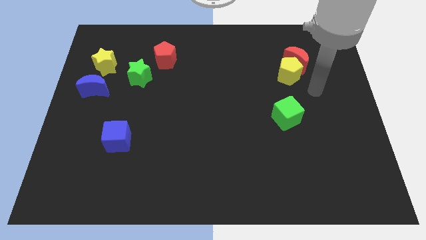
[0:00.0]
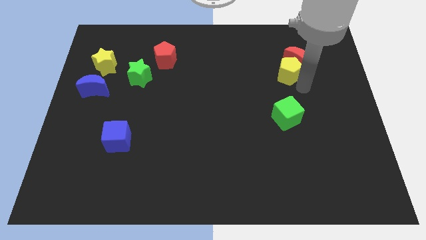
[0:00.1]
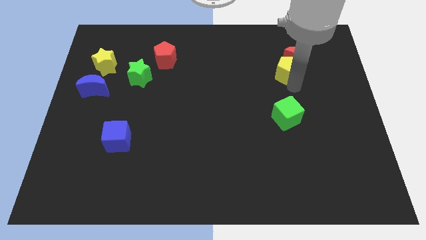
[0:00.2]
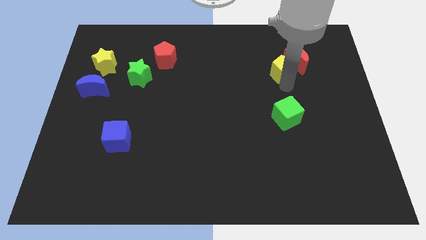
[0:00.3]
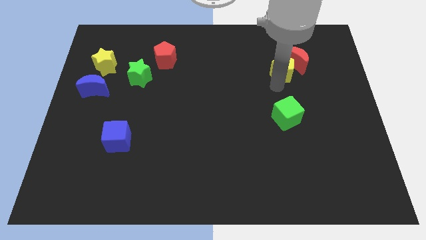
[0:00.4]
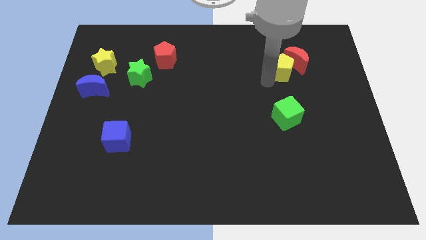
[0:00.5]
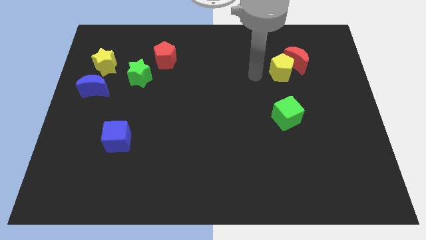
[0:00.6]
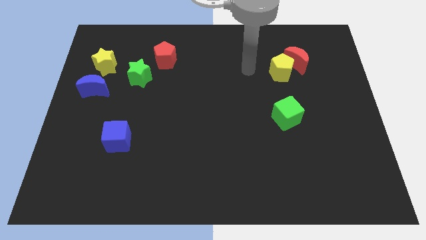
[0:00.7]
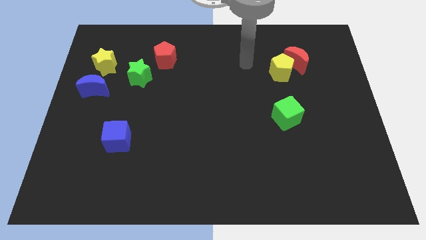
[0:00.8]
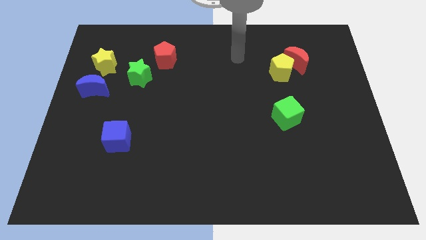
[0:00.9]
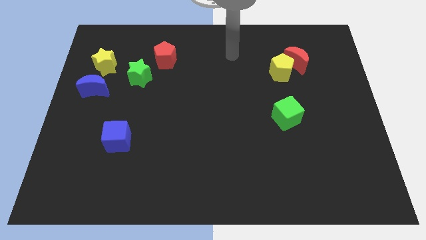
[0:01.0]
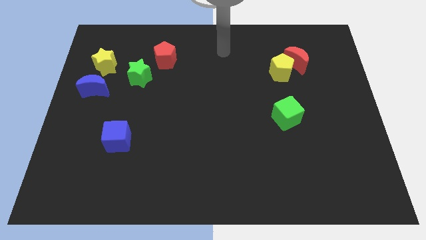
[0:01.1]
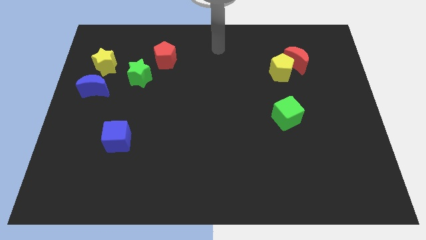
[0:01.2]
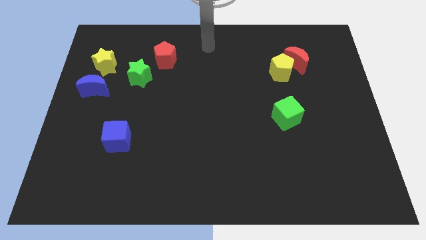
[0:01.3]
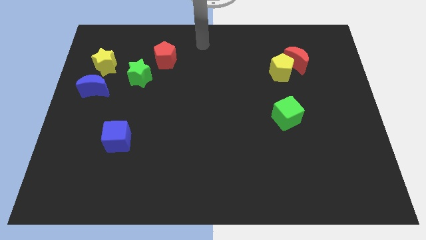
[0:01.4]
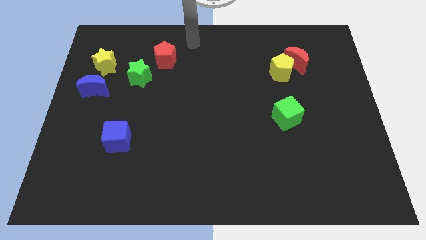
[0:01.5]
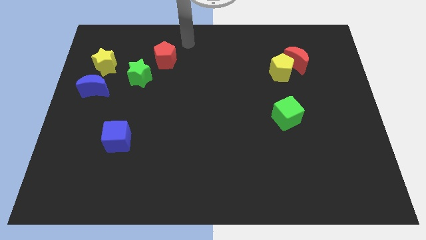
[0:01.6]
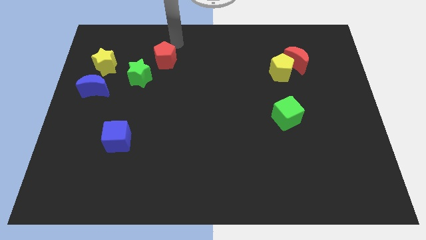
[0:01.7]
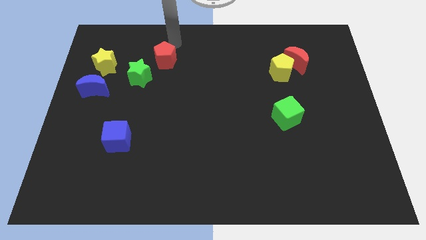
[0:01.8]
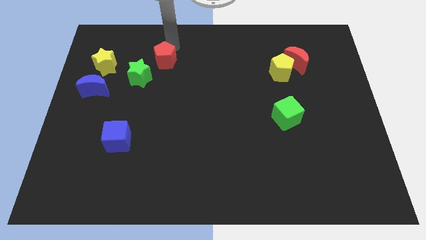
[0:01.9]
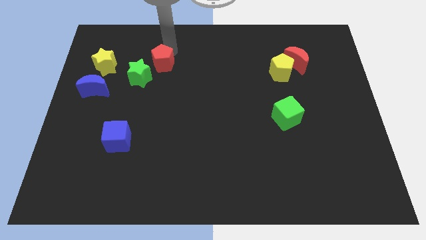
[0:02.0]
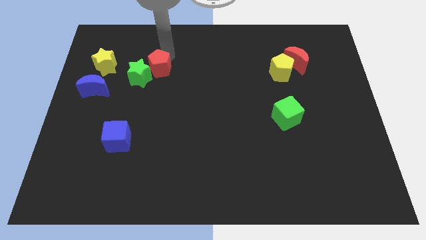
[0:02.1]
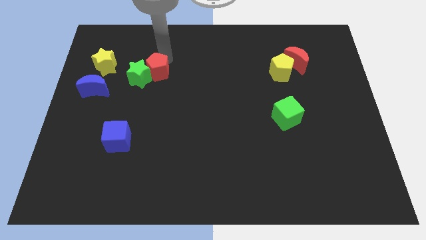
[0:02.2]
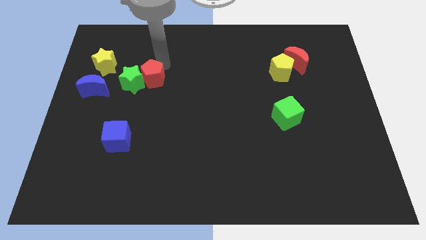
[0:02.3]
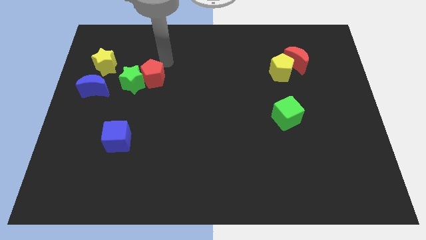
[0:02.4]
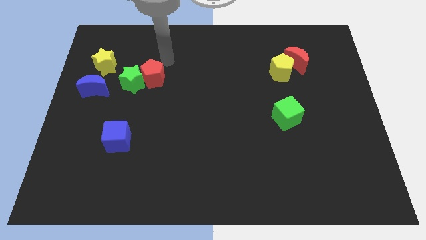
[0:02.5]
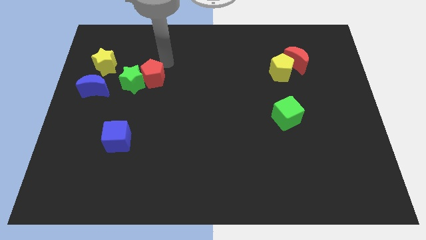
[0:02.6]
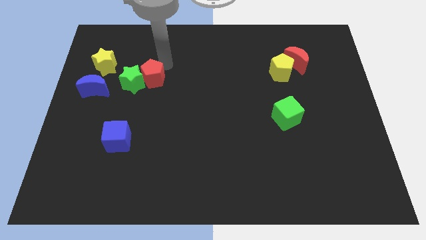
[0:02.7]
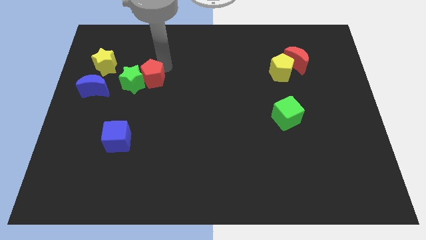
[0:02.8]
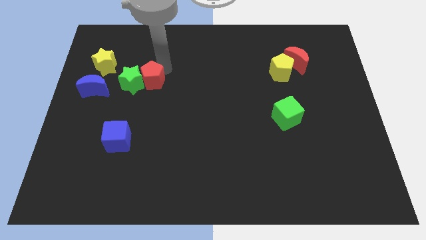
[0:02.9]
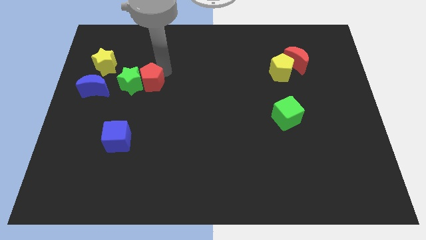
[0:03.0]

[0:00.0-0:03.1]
slide the red pentagon downwards and left a bit

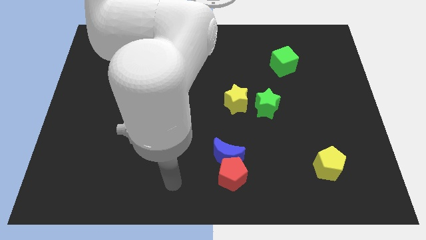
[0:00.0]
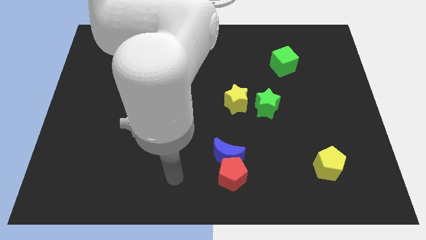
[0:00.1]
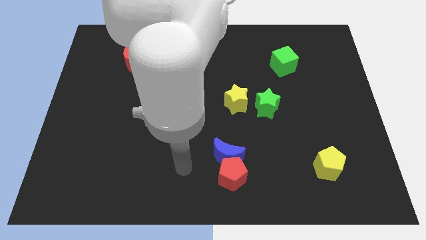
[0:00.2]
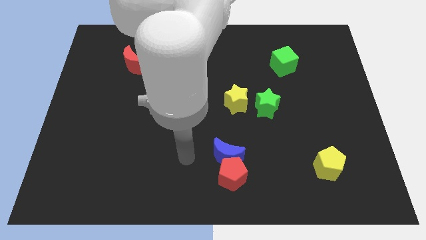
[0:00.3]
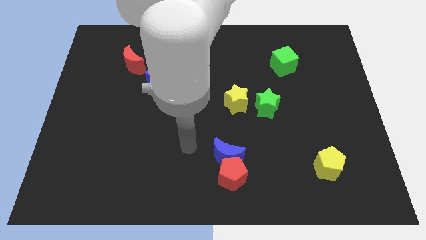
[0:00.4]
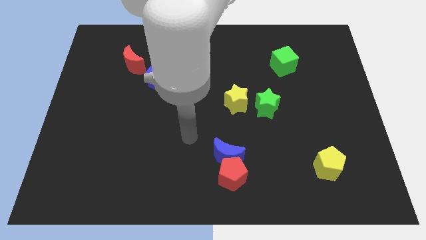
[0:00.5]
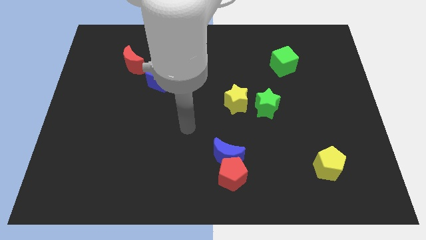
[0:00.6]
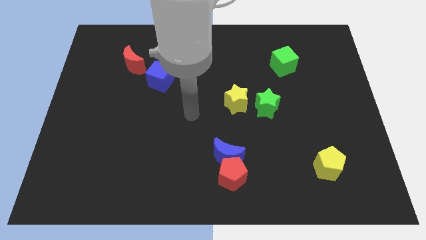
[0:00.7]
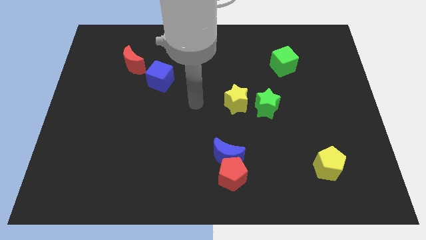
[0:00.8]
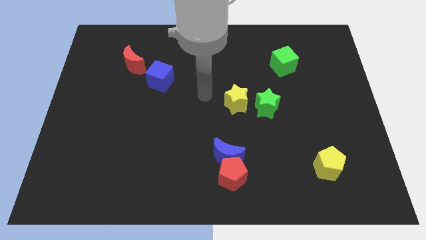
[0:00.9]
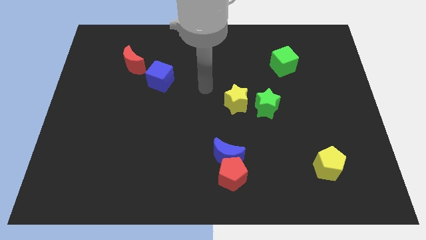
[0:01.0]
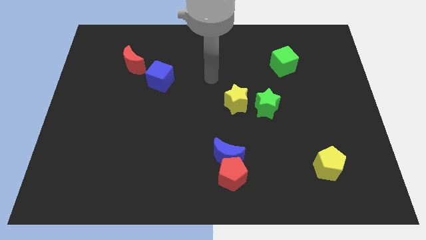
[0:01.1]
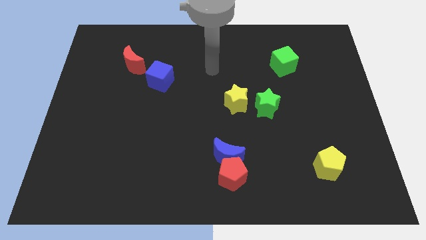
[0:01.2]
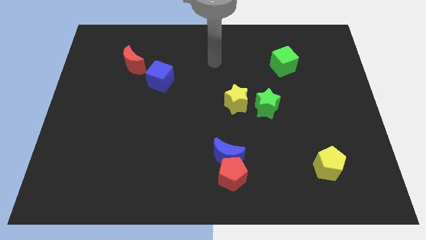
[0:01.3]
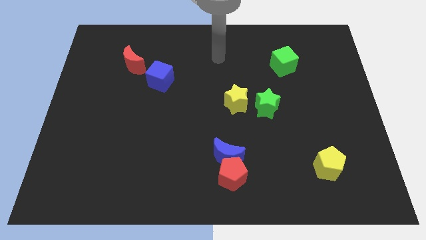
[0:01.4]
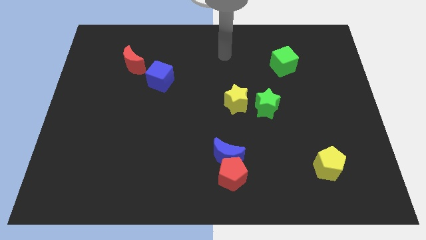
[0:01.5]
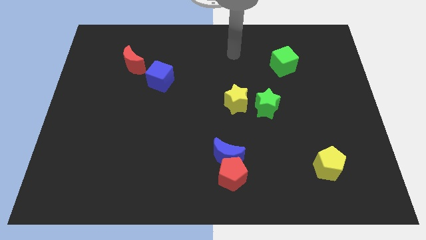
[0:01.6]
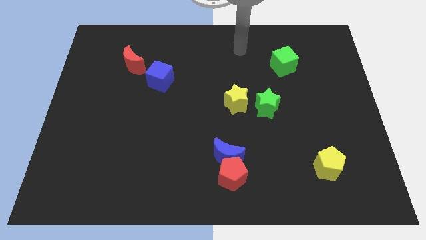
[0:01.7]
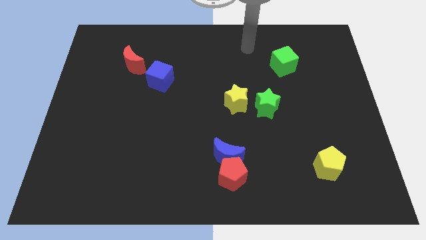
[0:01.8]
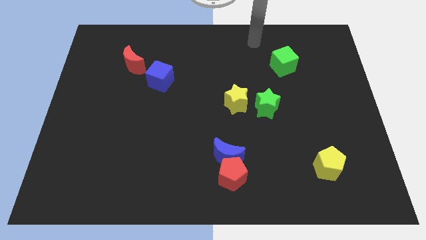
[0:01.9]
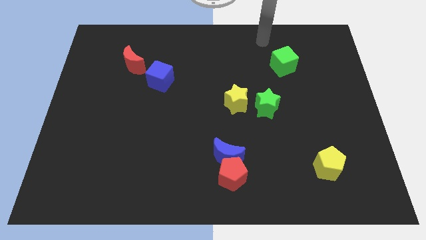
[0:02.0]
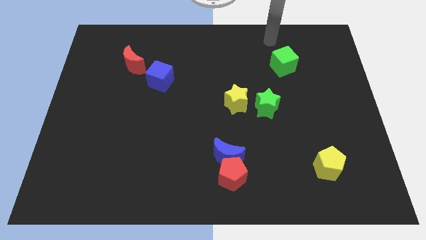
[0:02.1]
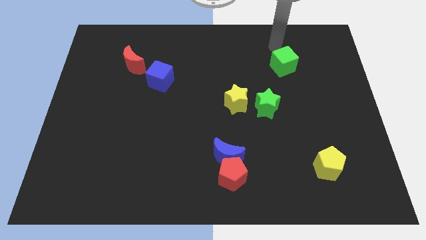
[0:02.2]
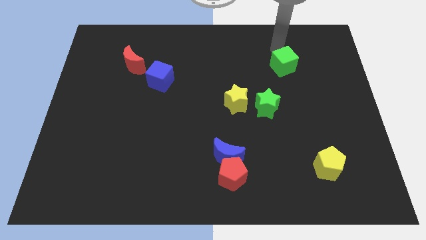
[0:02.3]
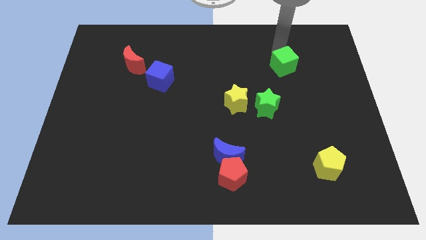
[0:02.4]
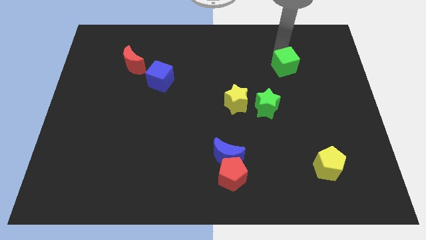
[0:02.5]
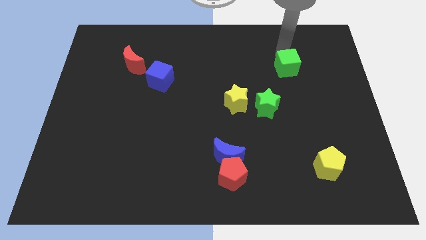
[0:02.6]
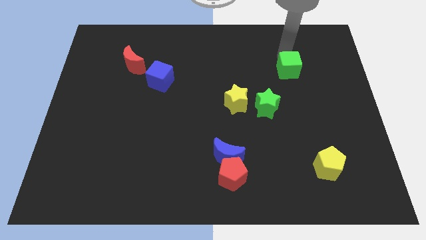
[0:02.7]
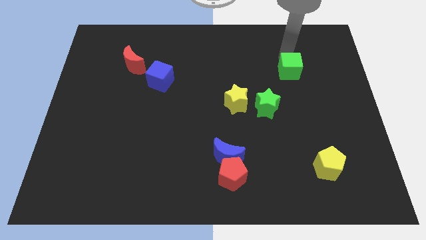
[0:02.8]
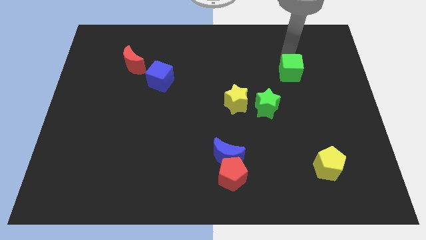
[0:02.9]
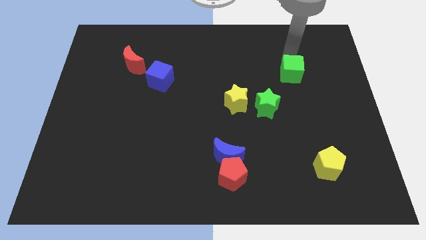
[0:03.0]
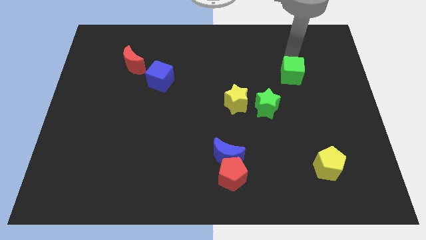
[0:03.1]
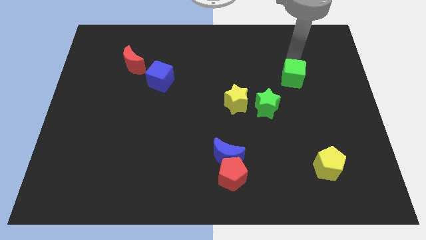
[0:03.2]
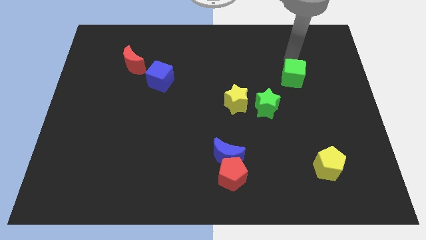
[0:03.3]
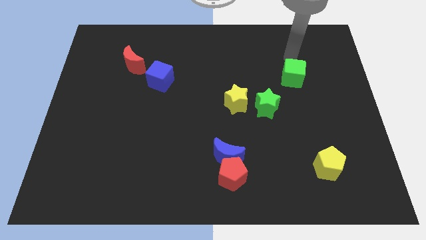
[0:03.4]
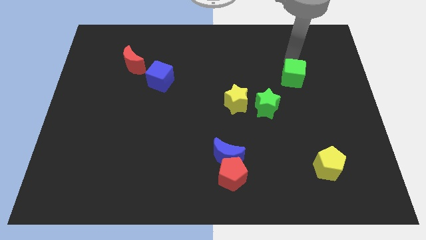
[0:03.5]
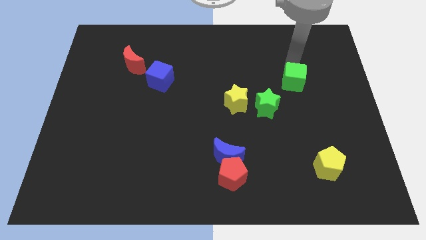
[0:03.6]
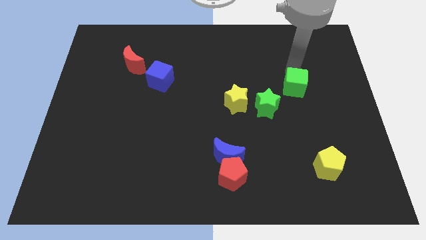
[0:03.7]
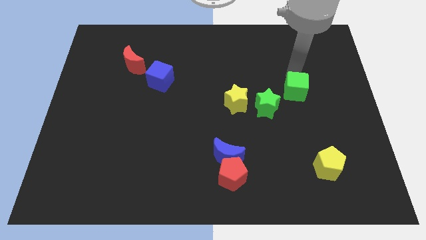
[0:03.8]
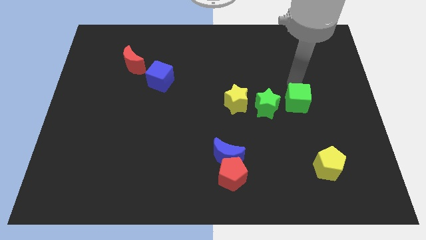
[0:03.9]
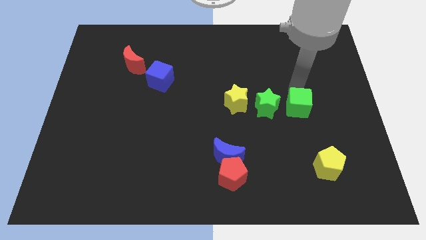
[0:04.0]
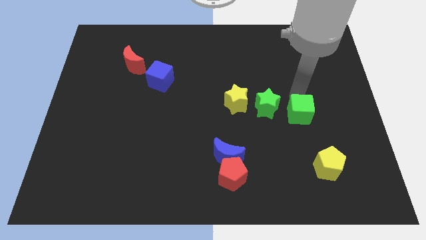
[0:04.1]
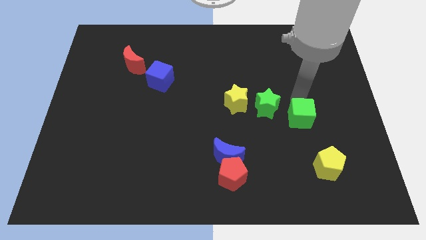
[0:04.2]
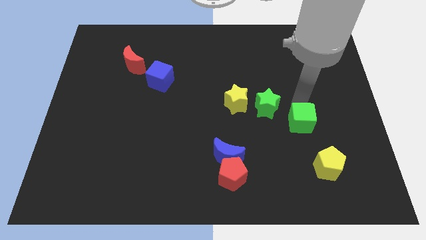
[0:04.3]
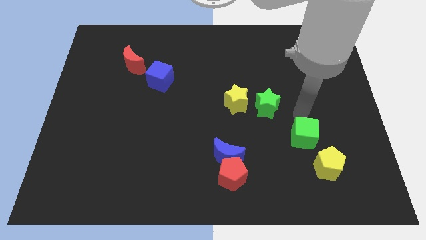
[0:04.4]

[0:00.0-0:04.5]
slide the green cube down

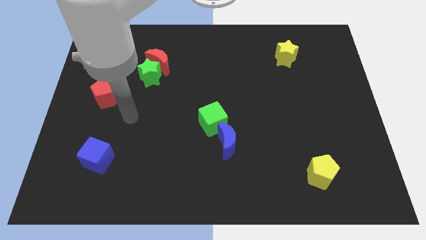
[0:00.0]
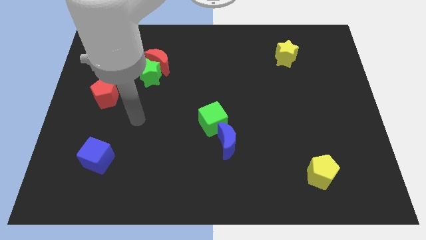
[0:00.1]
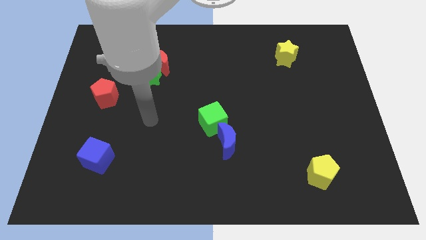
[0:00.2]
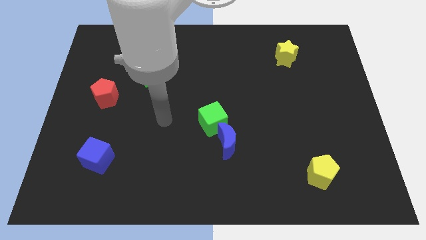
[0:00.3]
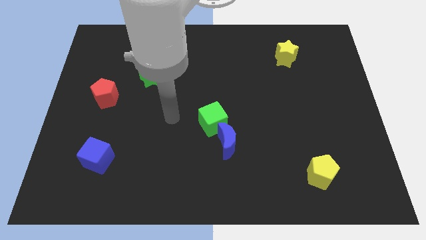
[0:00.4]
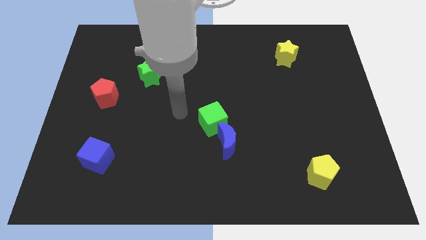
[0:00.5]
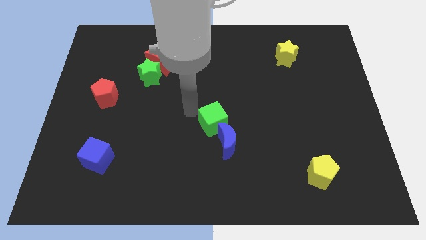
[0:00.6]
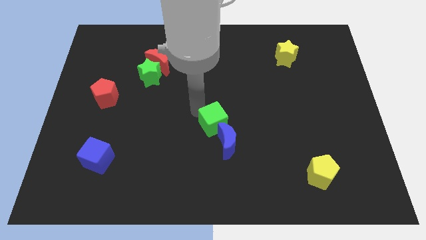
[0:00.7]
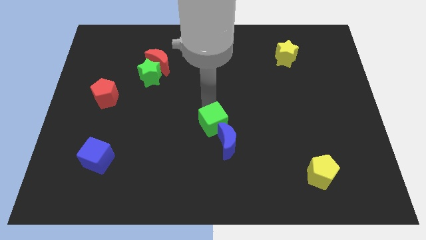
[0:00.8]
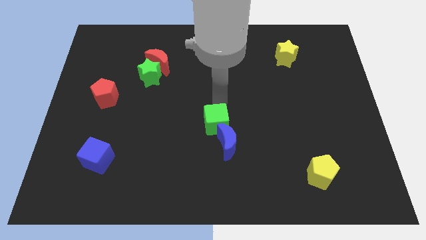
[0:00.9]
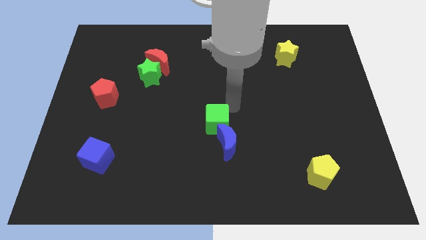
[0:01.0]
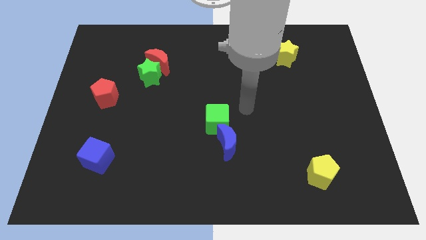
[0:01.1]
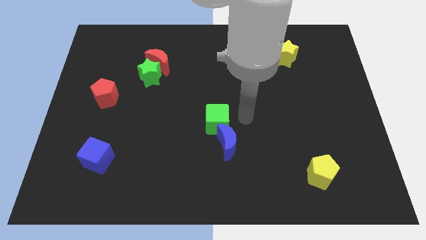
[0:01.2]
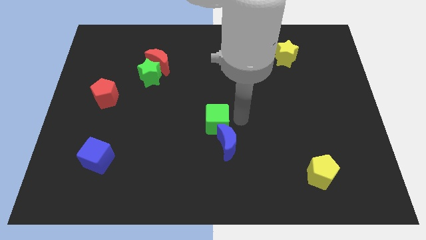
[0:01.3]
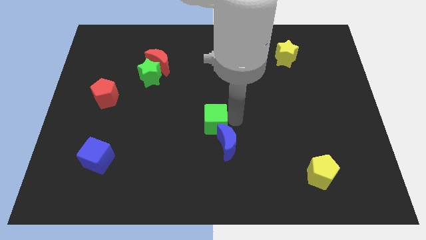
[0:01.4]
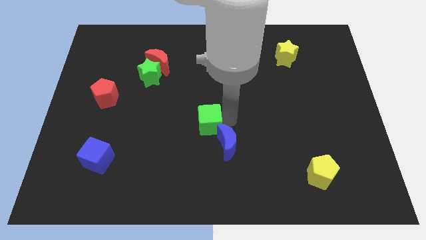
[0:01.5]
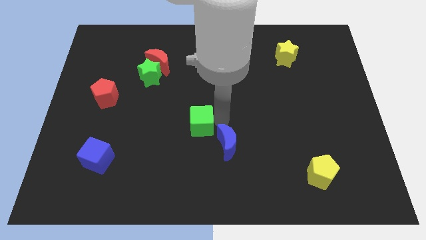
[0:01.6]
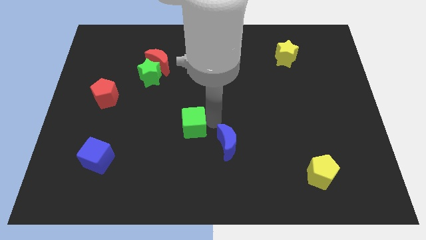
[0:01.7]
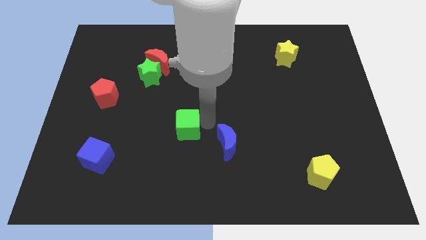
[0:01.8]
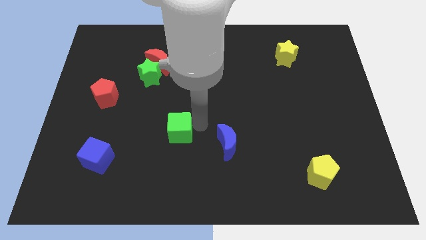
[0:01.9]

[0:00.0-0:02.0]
slide the green cube somewhat to the left
